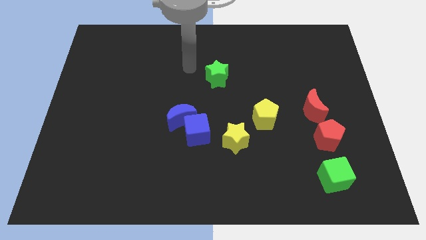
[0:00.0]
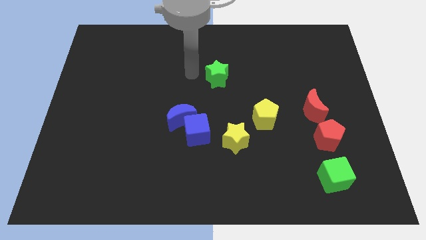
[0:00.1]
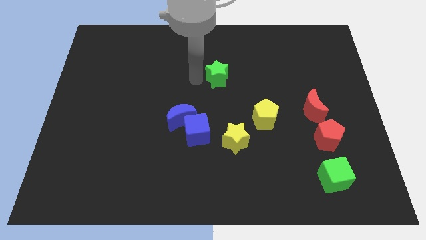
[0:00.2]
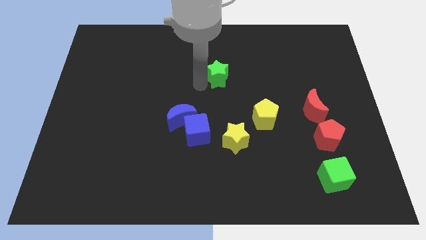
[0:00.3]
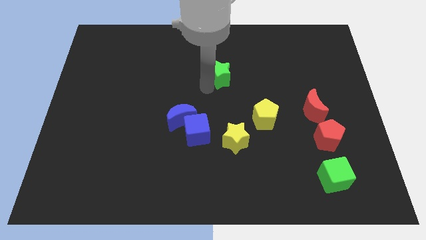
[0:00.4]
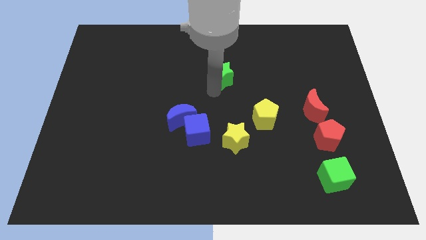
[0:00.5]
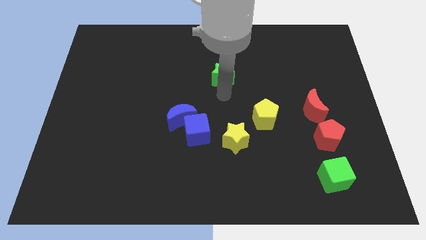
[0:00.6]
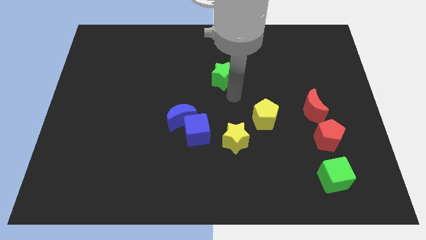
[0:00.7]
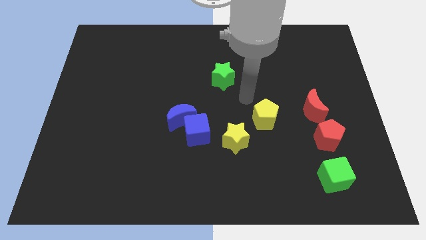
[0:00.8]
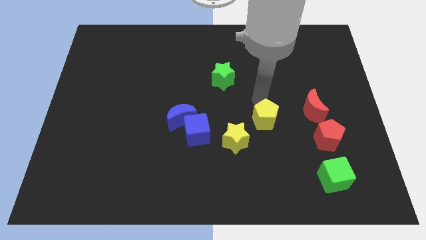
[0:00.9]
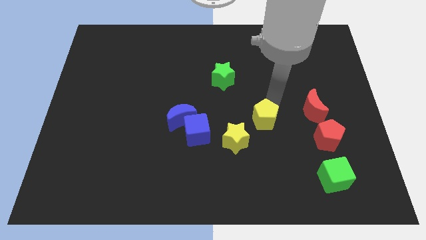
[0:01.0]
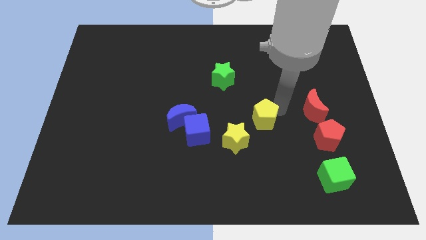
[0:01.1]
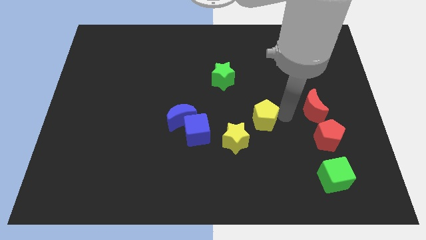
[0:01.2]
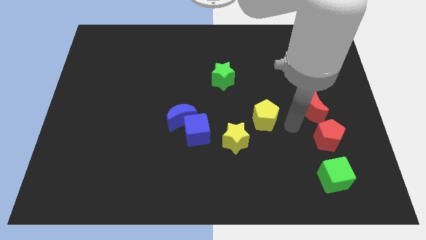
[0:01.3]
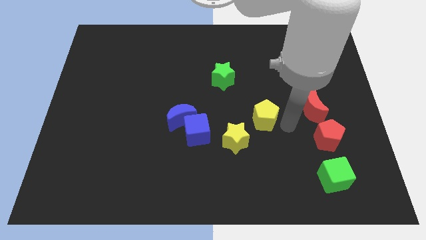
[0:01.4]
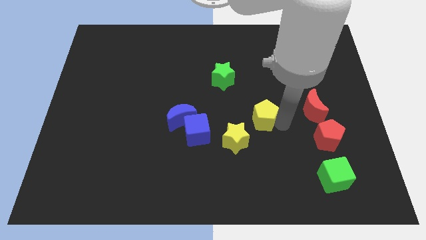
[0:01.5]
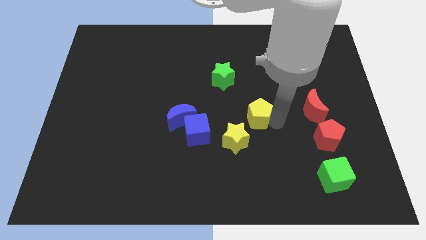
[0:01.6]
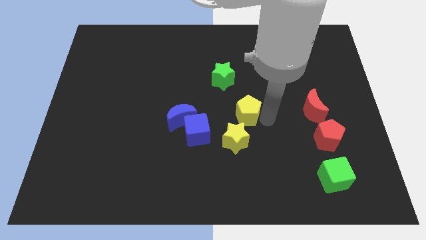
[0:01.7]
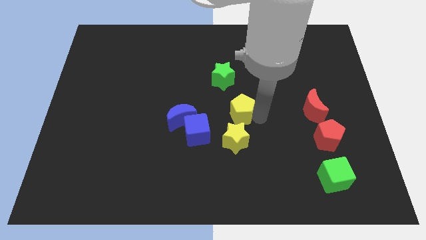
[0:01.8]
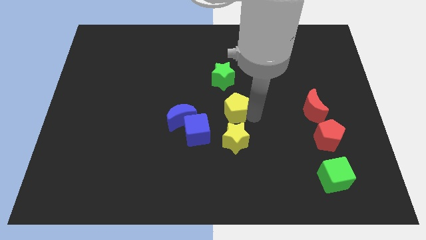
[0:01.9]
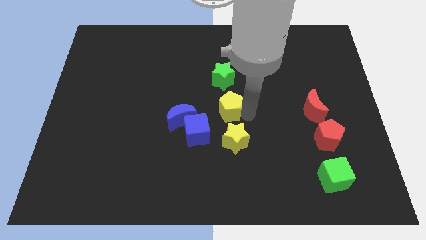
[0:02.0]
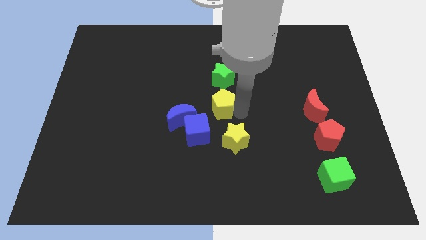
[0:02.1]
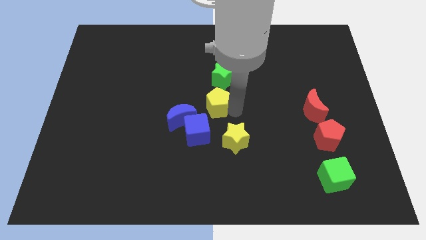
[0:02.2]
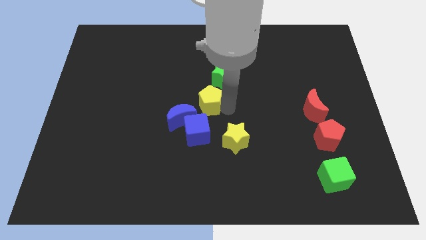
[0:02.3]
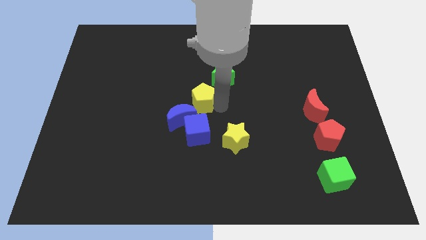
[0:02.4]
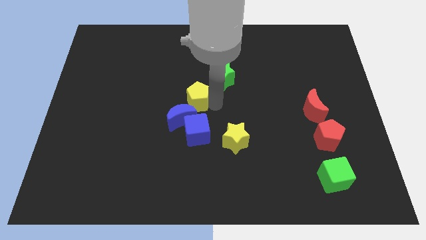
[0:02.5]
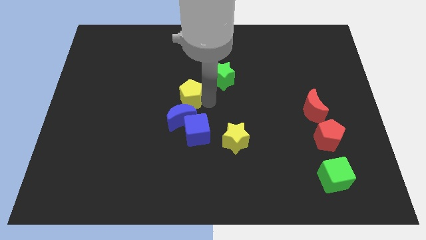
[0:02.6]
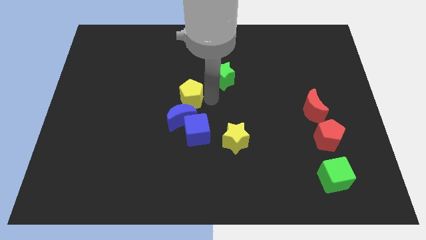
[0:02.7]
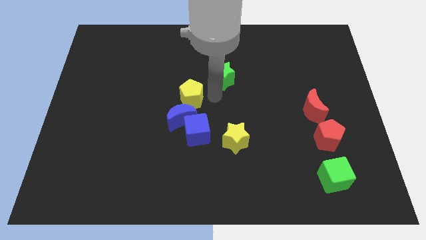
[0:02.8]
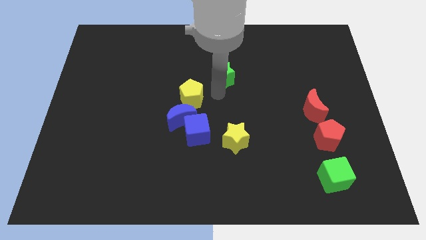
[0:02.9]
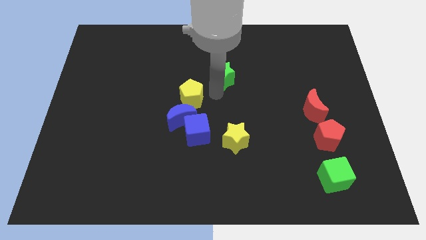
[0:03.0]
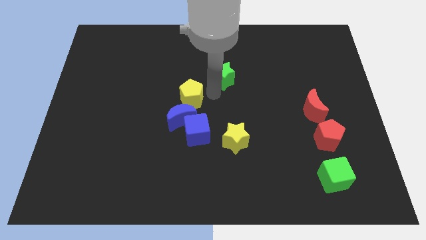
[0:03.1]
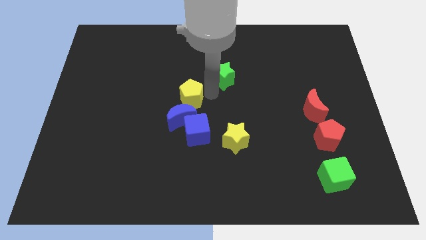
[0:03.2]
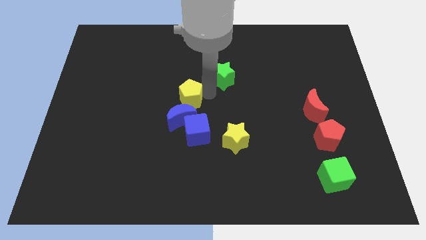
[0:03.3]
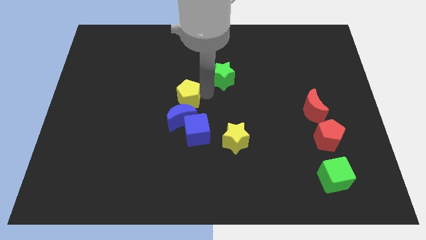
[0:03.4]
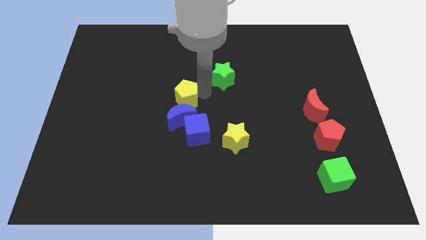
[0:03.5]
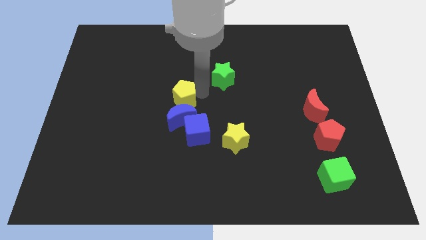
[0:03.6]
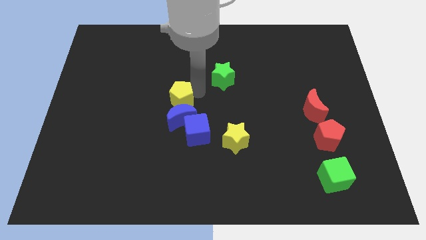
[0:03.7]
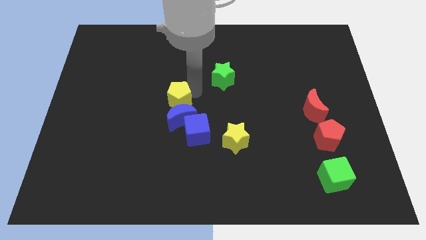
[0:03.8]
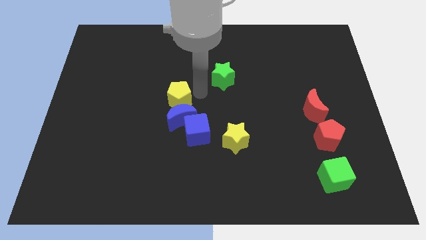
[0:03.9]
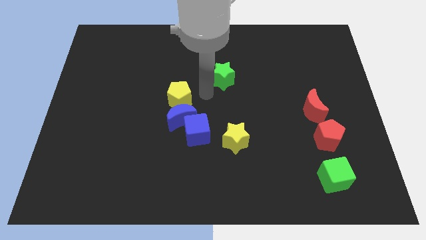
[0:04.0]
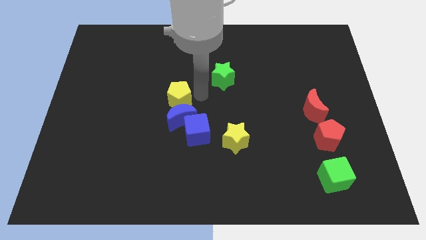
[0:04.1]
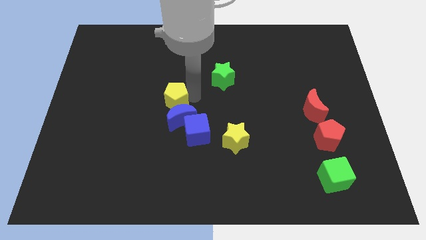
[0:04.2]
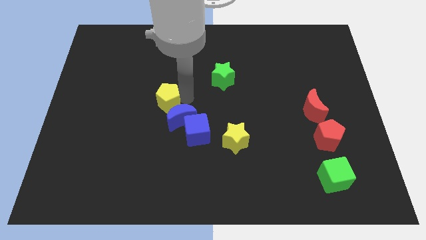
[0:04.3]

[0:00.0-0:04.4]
push the yellow pentagon left

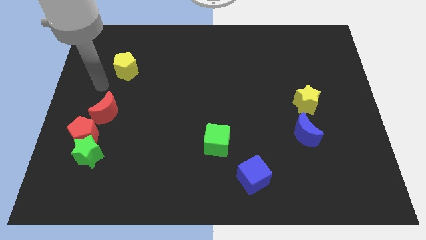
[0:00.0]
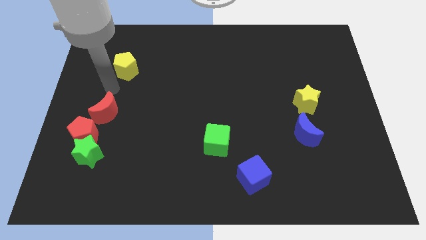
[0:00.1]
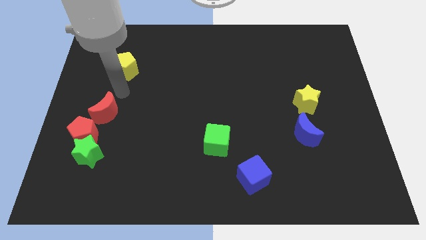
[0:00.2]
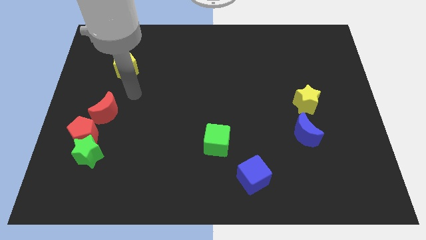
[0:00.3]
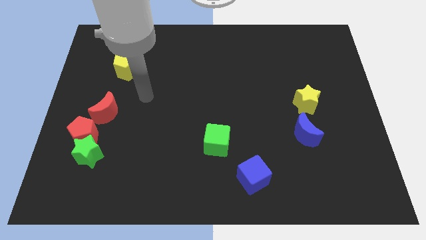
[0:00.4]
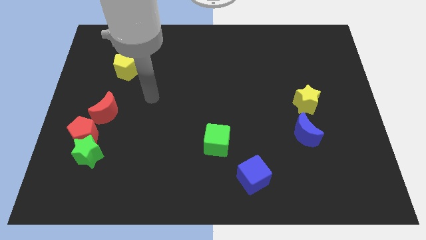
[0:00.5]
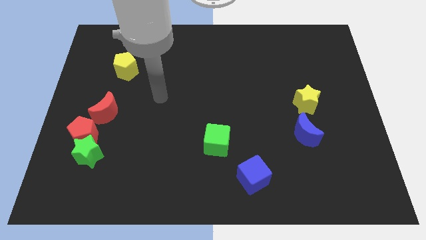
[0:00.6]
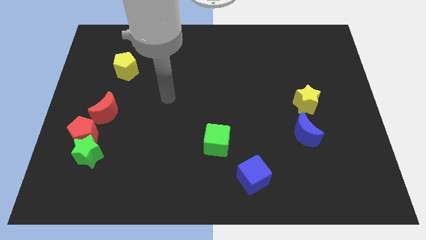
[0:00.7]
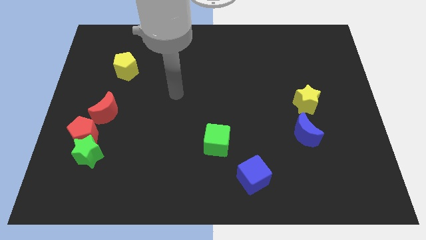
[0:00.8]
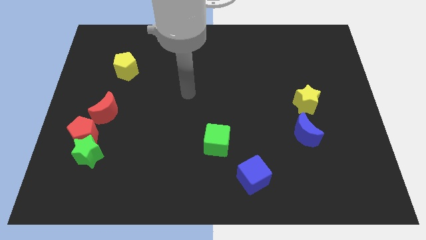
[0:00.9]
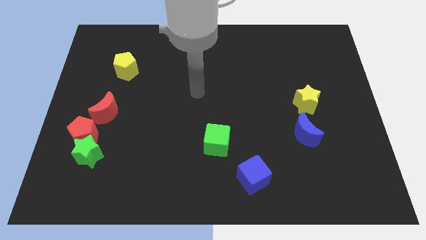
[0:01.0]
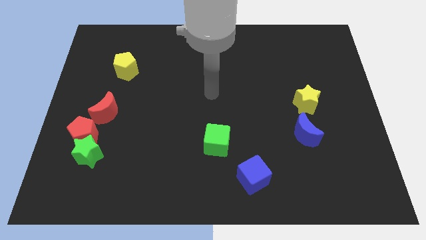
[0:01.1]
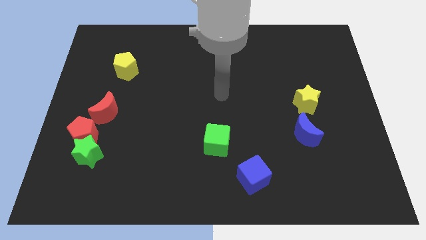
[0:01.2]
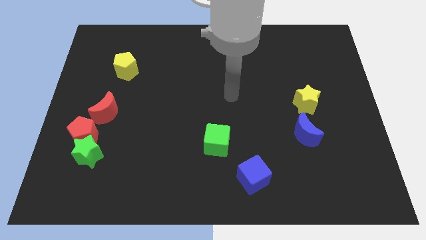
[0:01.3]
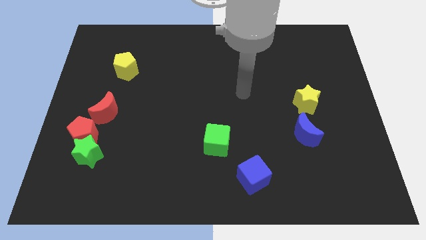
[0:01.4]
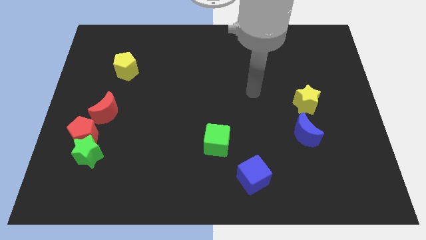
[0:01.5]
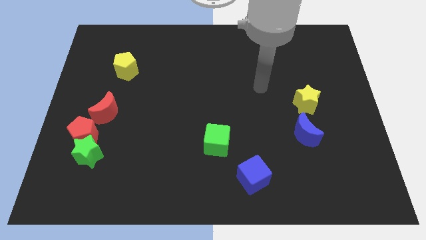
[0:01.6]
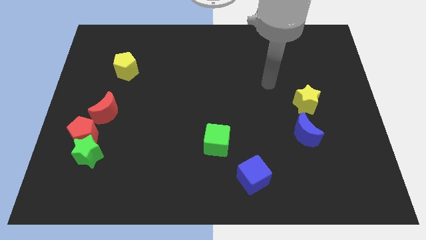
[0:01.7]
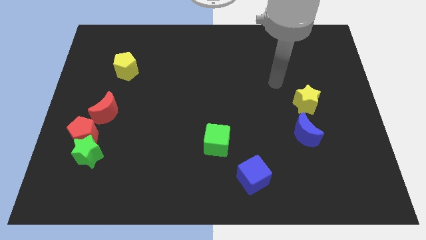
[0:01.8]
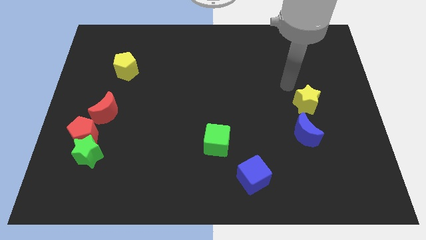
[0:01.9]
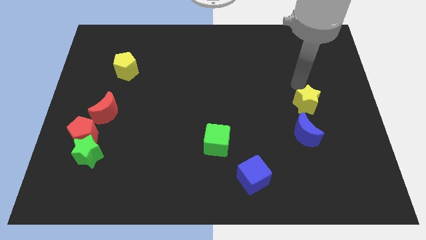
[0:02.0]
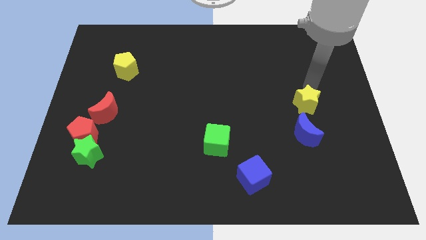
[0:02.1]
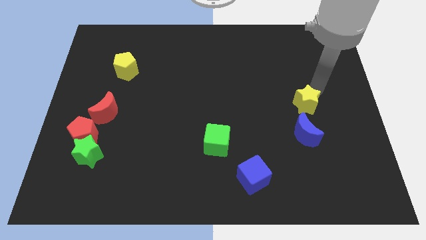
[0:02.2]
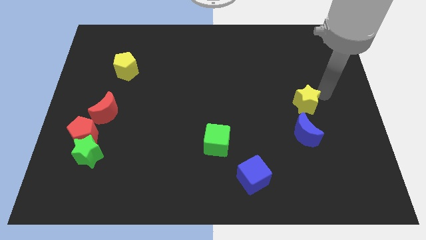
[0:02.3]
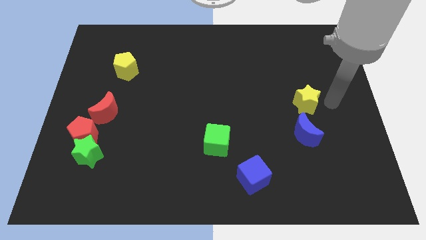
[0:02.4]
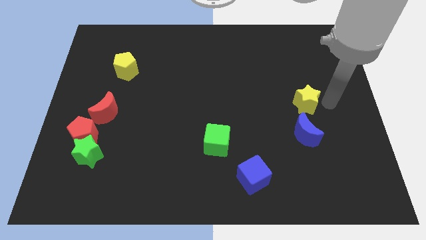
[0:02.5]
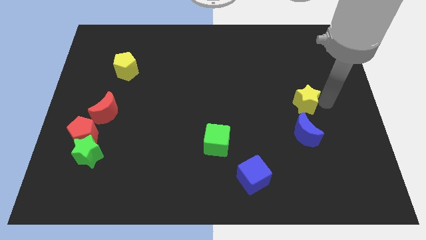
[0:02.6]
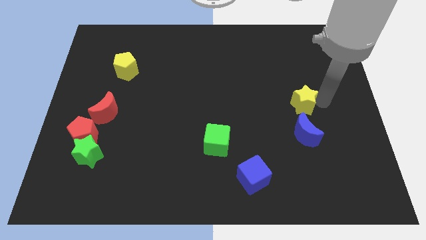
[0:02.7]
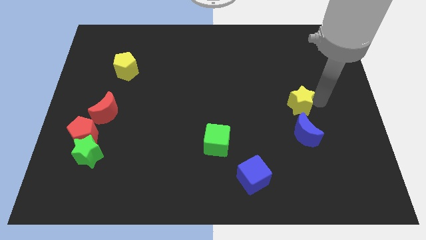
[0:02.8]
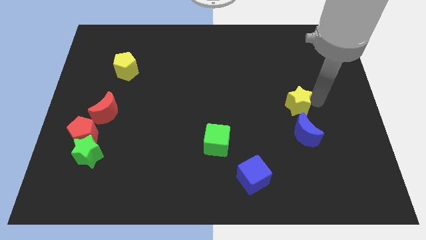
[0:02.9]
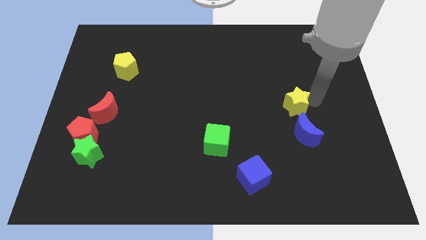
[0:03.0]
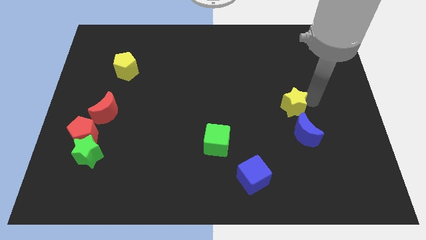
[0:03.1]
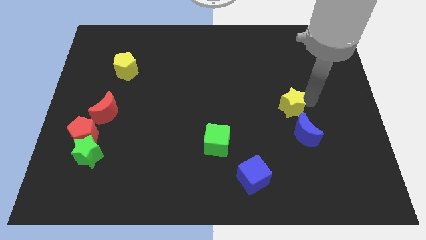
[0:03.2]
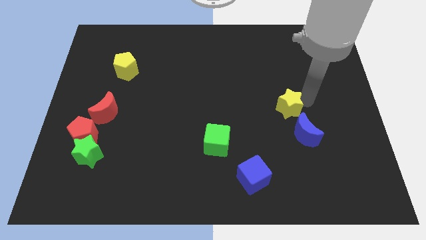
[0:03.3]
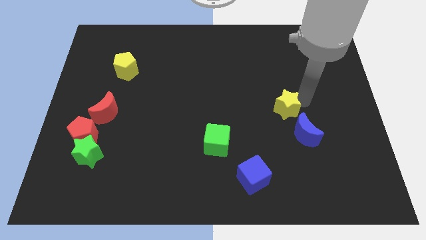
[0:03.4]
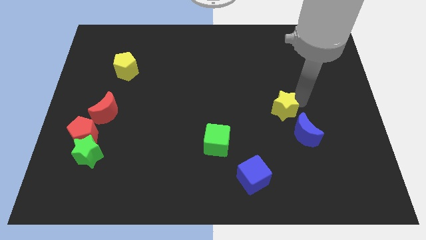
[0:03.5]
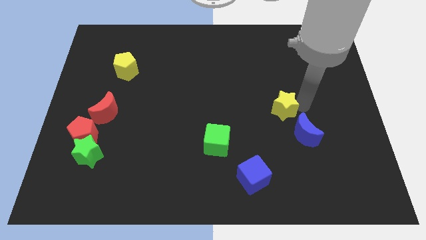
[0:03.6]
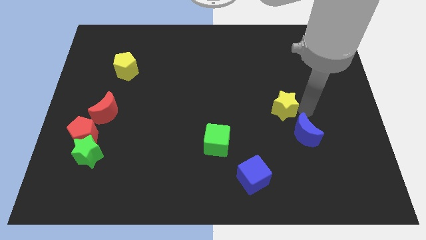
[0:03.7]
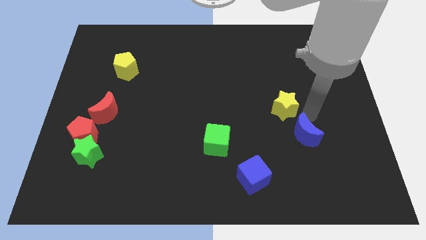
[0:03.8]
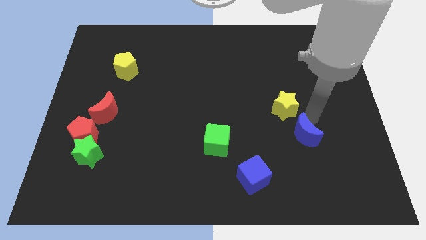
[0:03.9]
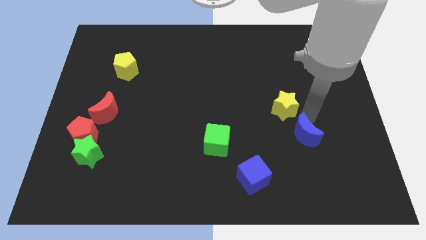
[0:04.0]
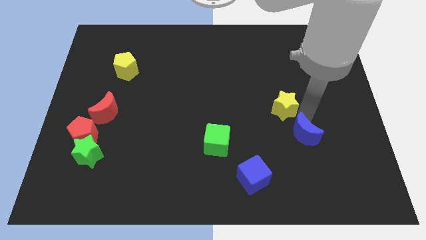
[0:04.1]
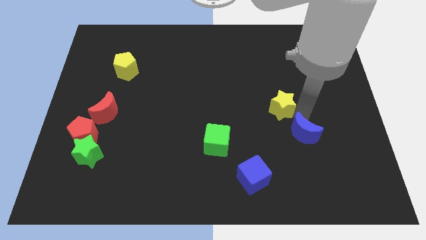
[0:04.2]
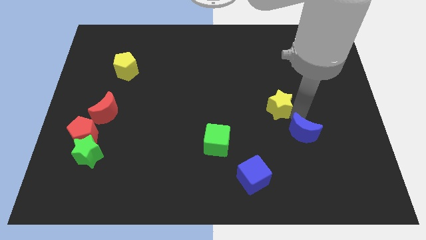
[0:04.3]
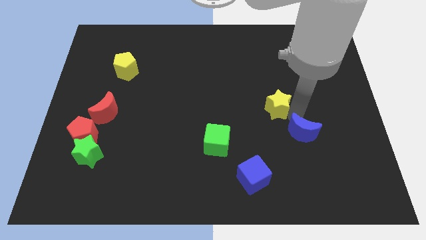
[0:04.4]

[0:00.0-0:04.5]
slightly push the yellow star left
